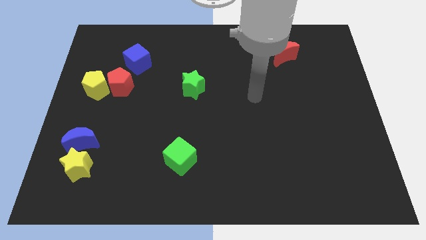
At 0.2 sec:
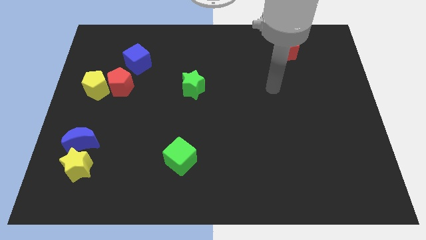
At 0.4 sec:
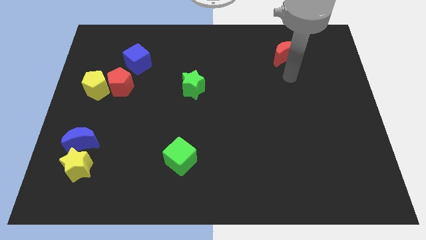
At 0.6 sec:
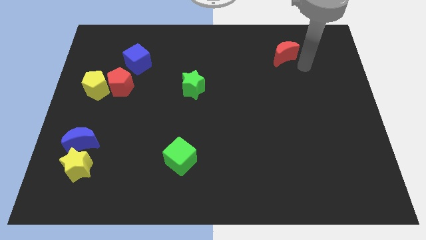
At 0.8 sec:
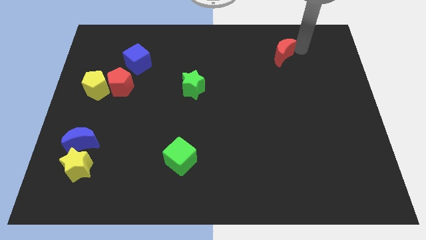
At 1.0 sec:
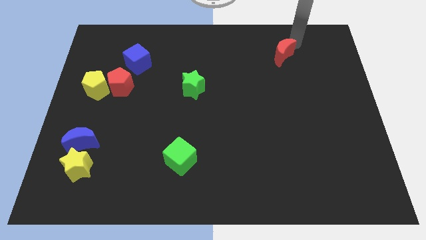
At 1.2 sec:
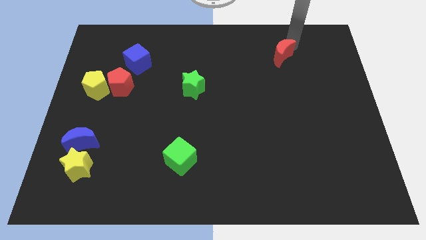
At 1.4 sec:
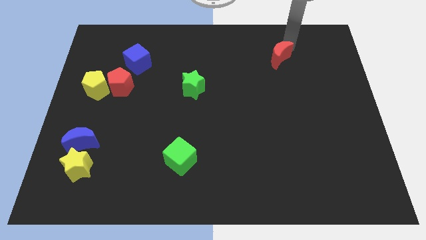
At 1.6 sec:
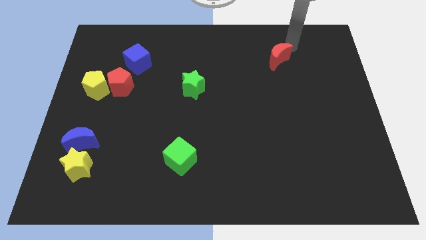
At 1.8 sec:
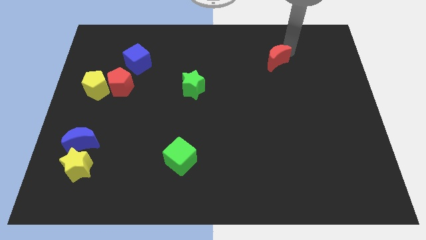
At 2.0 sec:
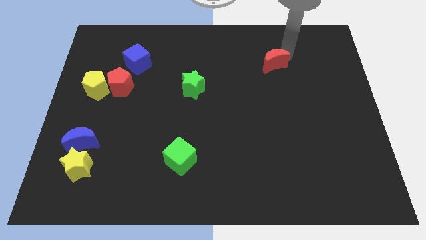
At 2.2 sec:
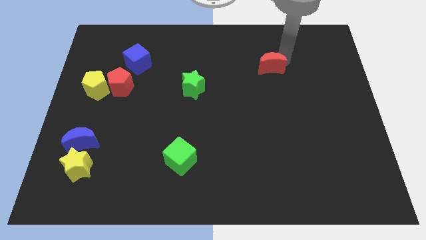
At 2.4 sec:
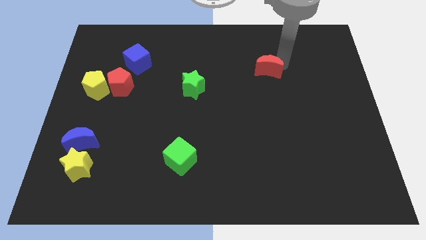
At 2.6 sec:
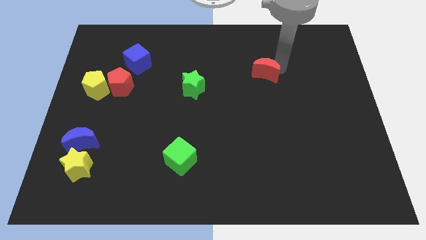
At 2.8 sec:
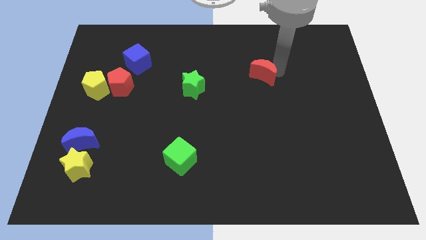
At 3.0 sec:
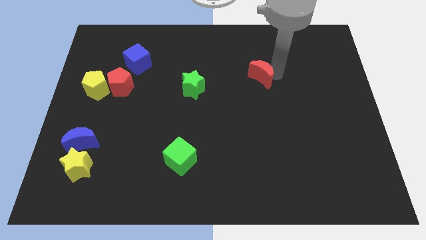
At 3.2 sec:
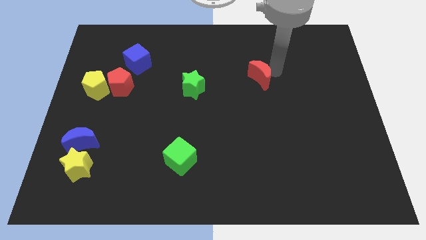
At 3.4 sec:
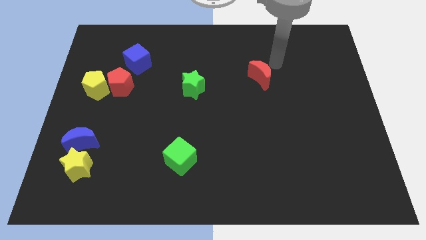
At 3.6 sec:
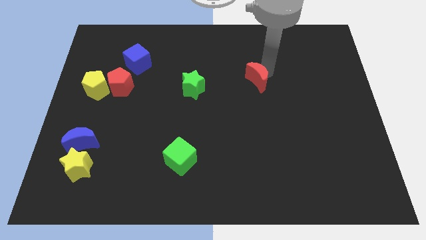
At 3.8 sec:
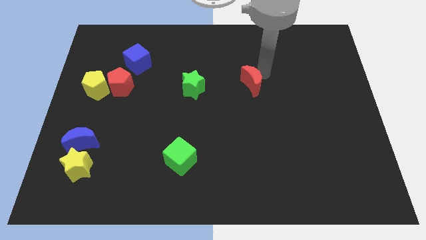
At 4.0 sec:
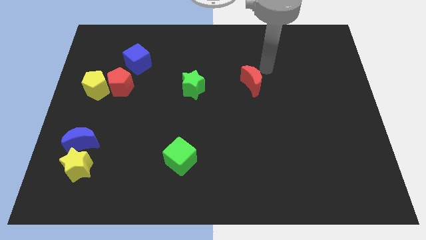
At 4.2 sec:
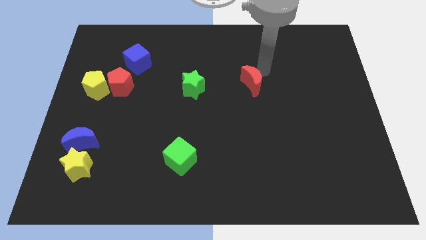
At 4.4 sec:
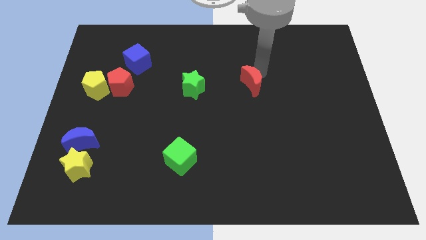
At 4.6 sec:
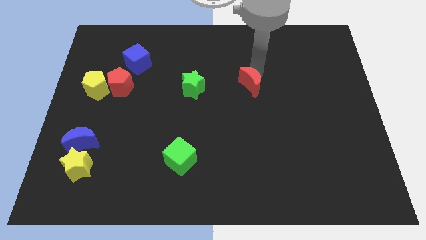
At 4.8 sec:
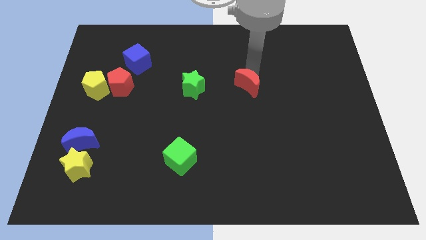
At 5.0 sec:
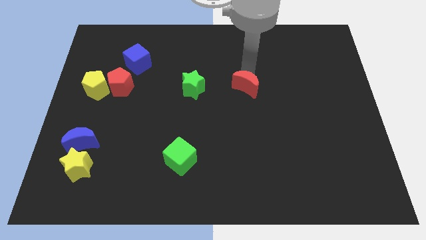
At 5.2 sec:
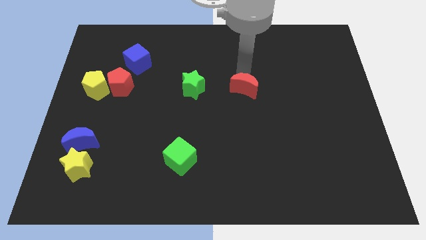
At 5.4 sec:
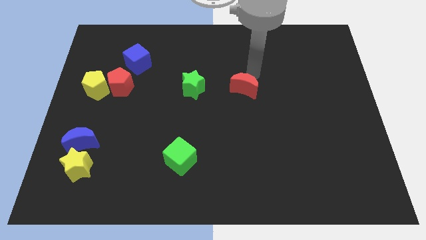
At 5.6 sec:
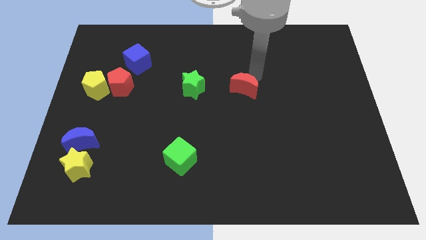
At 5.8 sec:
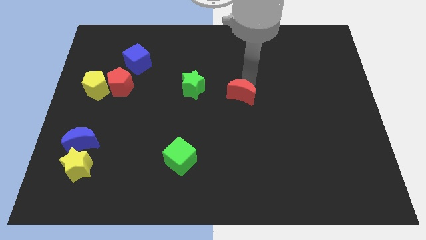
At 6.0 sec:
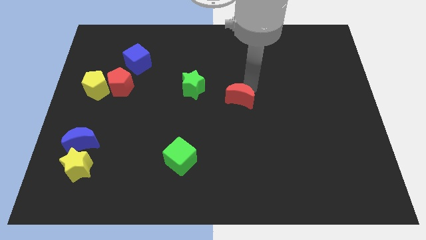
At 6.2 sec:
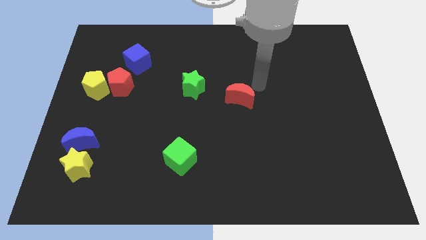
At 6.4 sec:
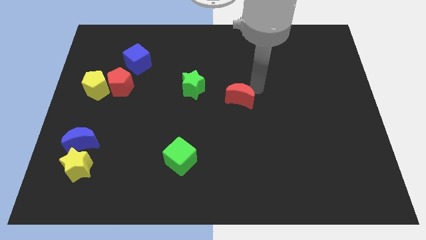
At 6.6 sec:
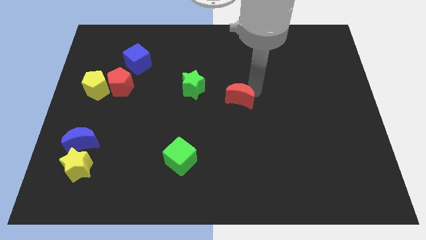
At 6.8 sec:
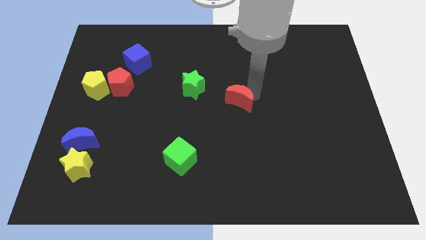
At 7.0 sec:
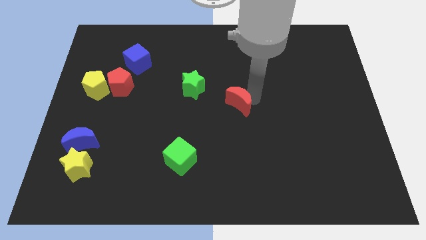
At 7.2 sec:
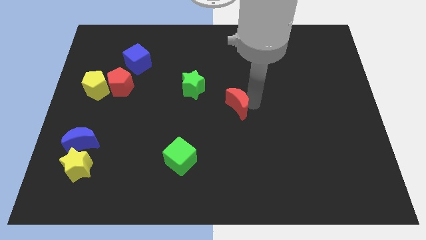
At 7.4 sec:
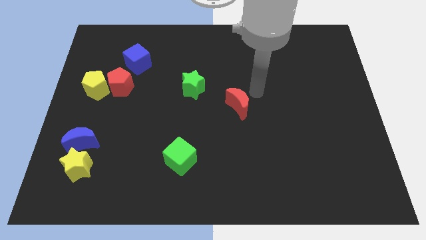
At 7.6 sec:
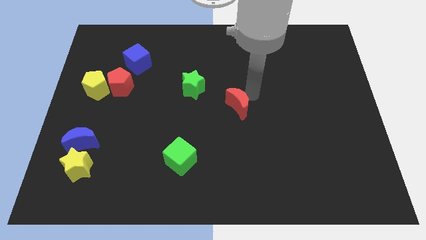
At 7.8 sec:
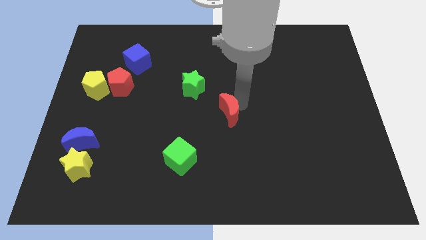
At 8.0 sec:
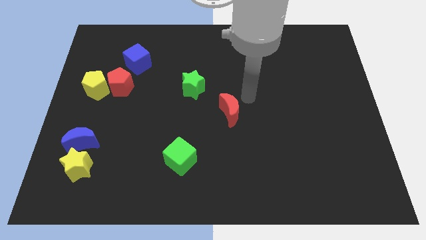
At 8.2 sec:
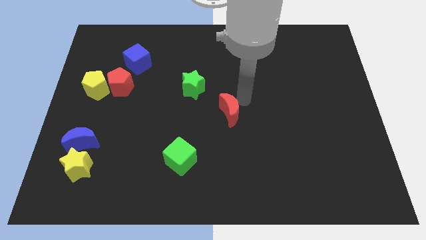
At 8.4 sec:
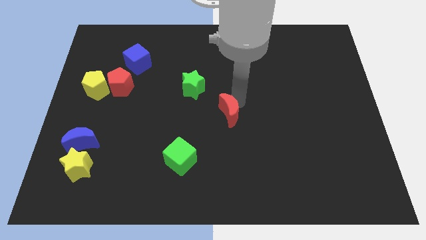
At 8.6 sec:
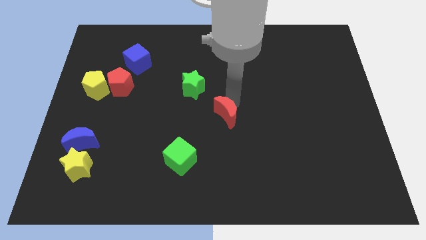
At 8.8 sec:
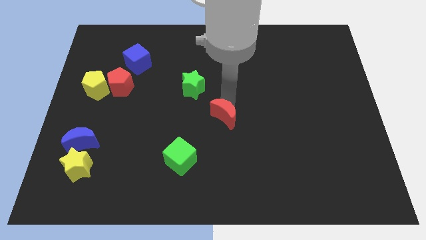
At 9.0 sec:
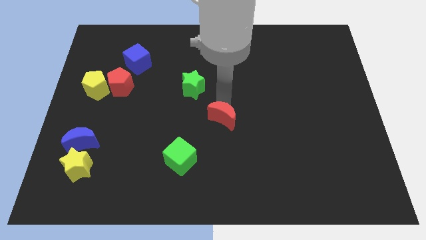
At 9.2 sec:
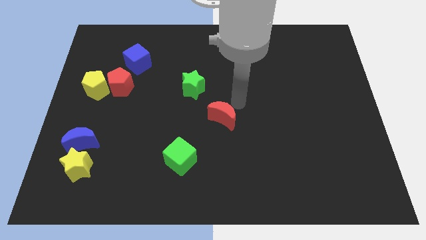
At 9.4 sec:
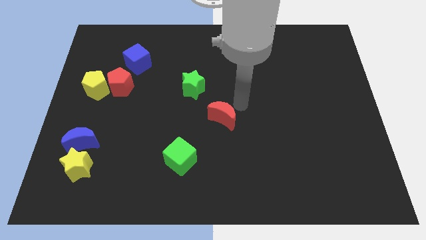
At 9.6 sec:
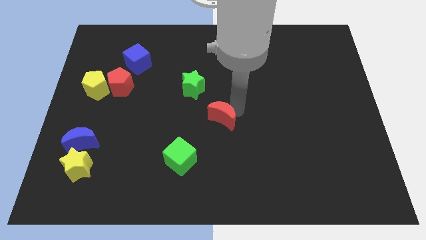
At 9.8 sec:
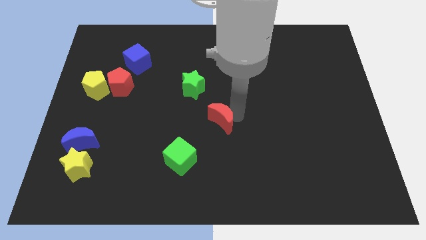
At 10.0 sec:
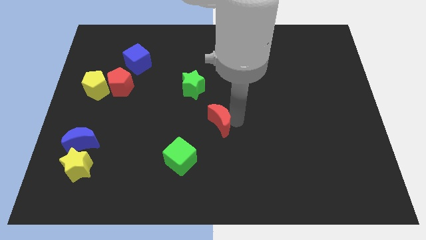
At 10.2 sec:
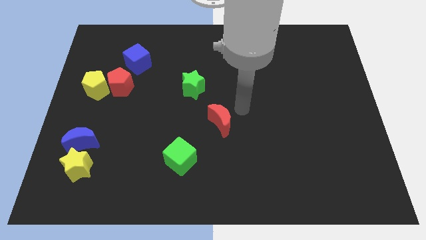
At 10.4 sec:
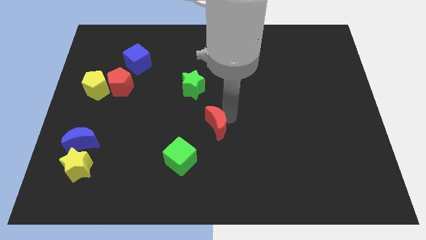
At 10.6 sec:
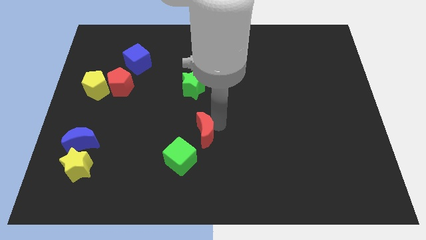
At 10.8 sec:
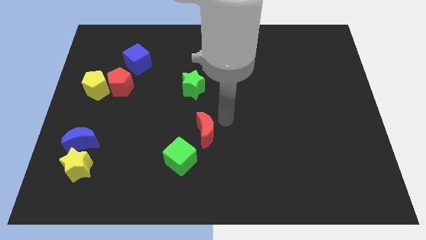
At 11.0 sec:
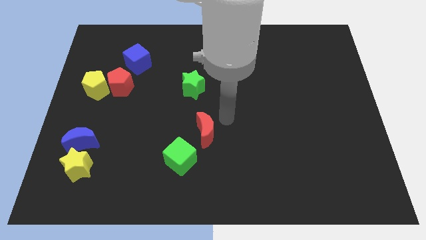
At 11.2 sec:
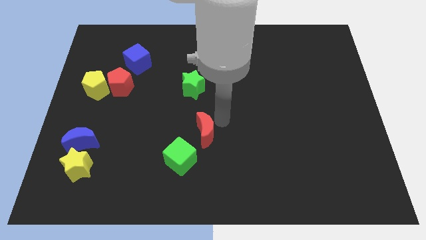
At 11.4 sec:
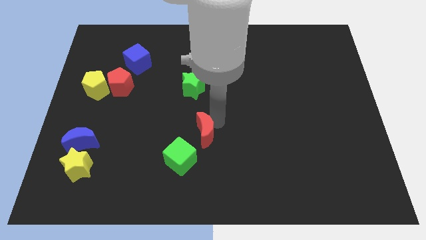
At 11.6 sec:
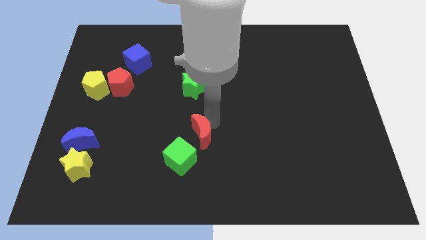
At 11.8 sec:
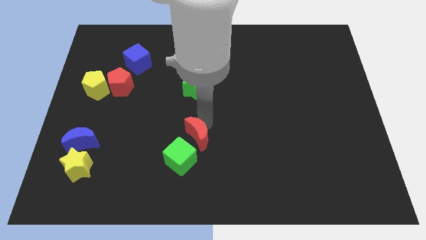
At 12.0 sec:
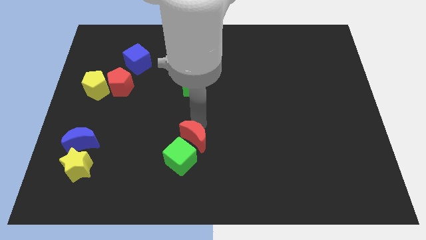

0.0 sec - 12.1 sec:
move the red moon towards the green cube
